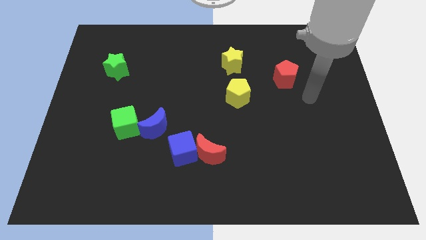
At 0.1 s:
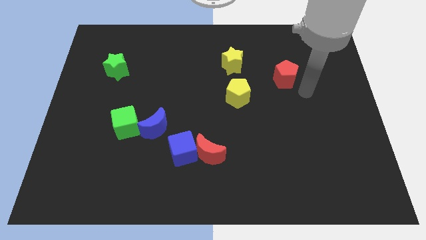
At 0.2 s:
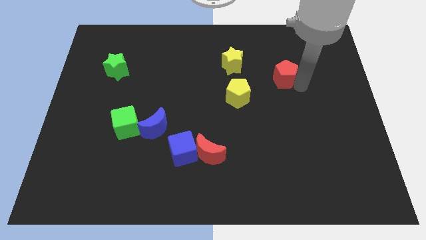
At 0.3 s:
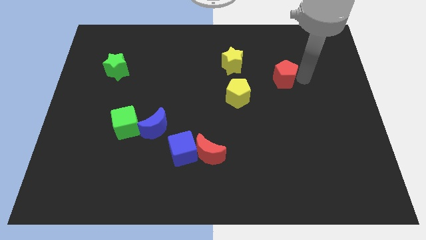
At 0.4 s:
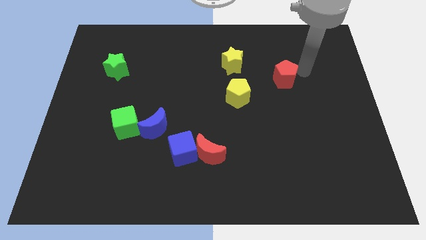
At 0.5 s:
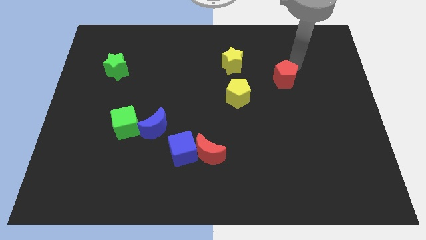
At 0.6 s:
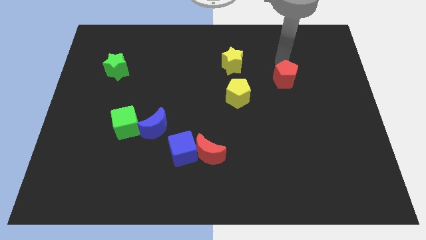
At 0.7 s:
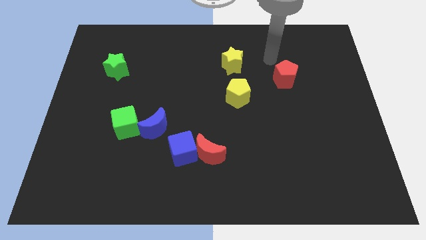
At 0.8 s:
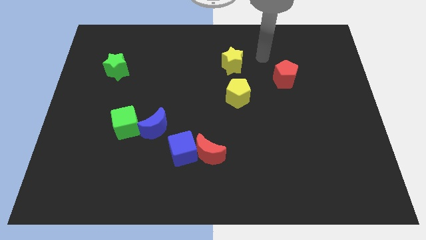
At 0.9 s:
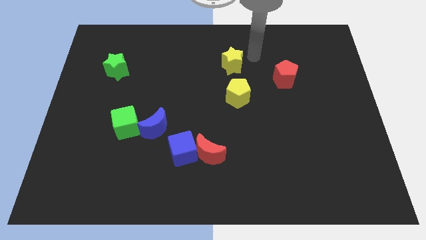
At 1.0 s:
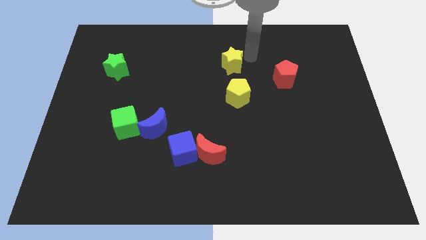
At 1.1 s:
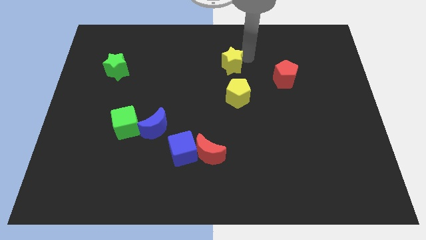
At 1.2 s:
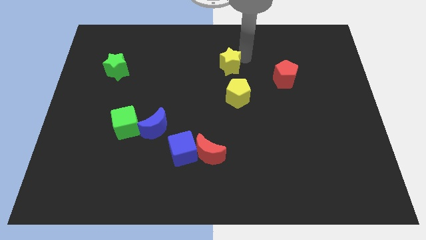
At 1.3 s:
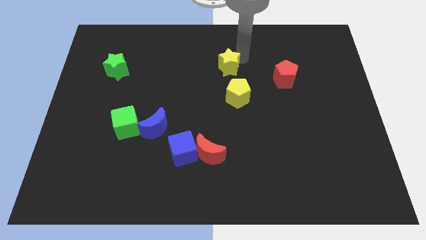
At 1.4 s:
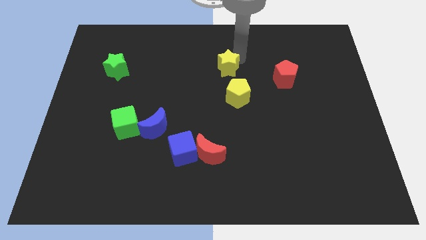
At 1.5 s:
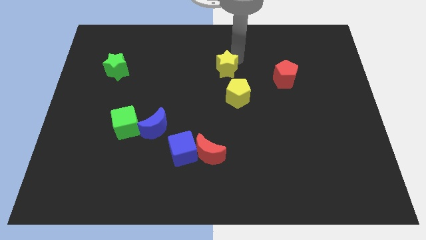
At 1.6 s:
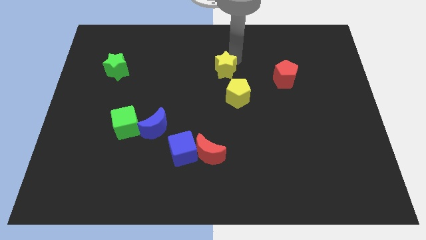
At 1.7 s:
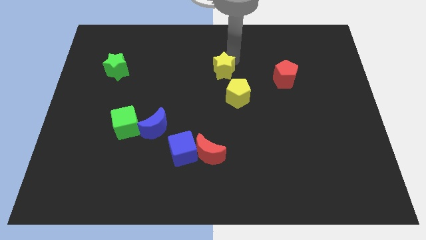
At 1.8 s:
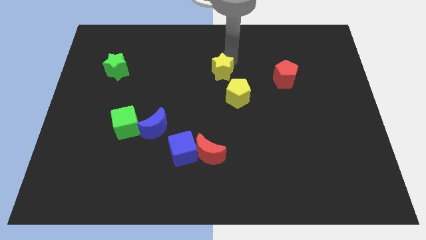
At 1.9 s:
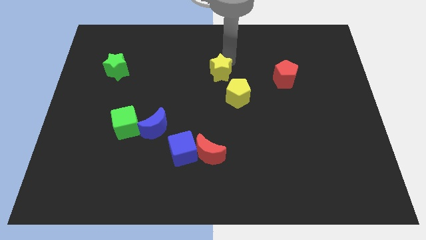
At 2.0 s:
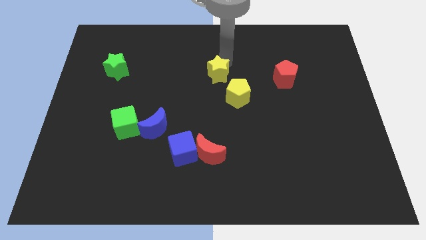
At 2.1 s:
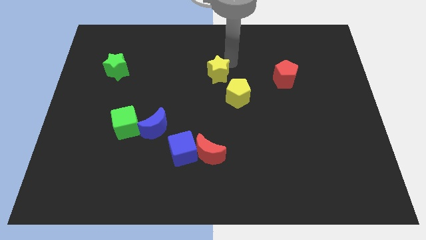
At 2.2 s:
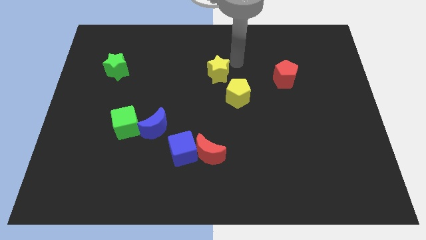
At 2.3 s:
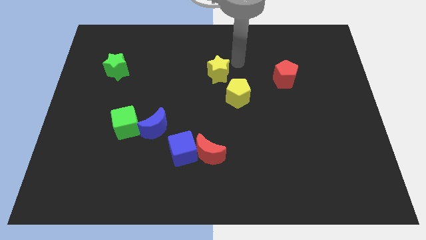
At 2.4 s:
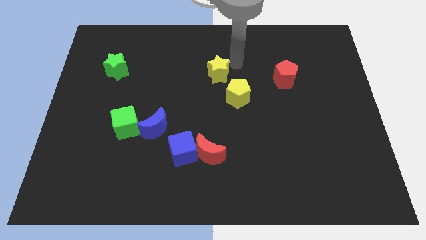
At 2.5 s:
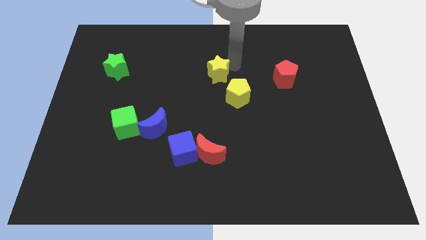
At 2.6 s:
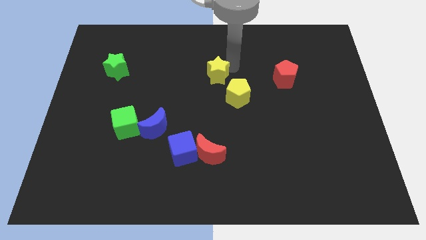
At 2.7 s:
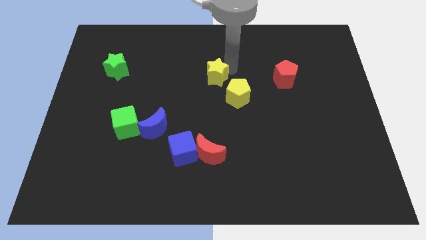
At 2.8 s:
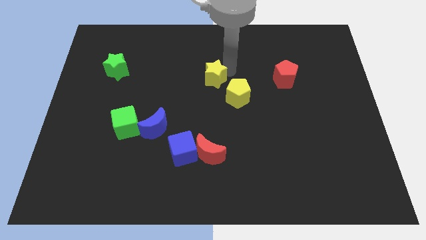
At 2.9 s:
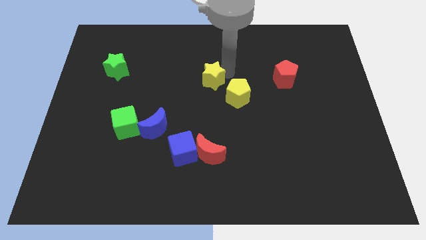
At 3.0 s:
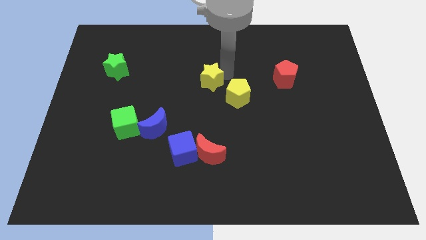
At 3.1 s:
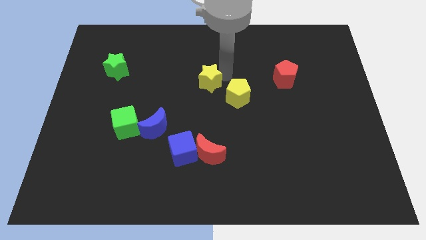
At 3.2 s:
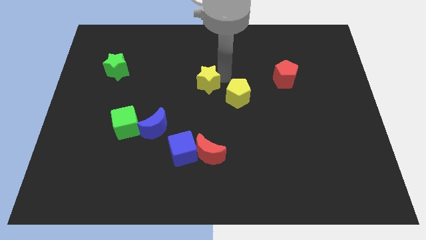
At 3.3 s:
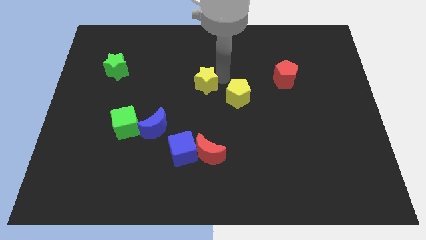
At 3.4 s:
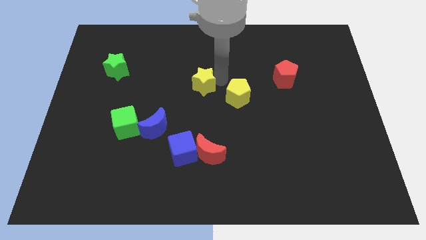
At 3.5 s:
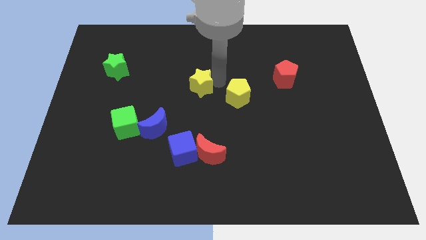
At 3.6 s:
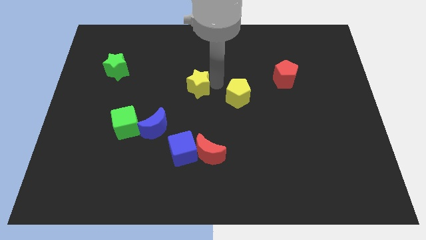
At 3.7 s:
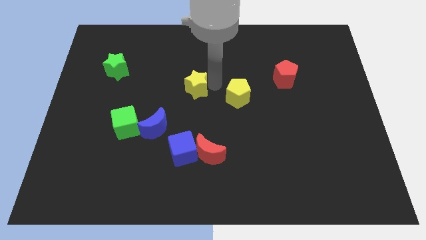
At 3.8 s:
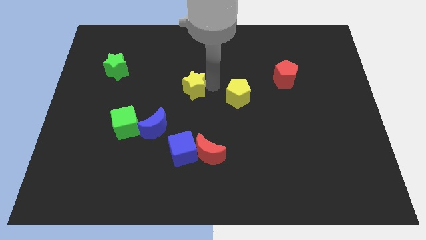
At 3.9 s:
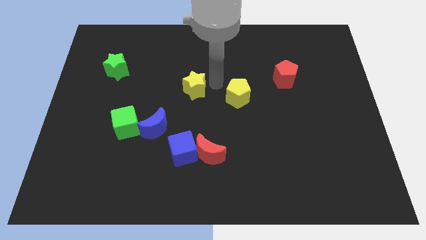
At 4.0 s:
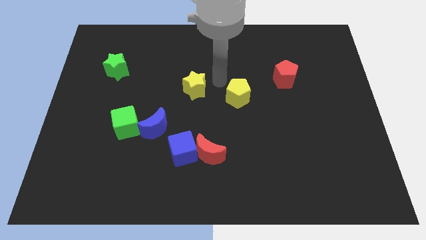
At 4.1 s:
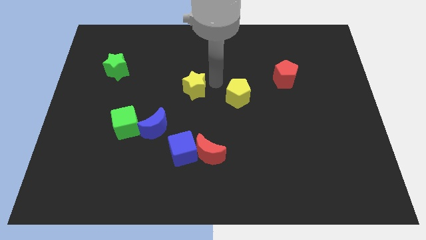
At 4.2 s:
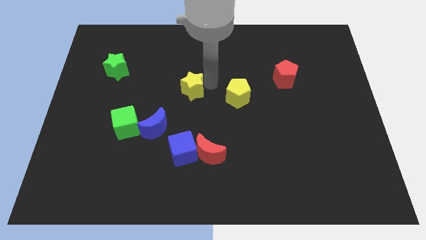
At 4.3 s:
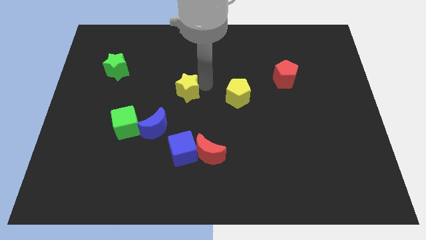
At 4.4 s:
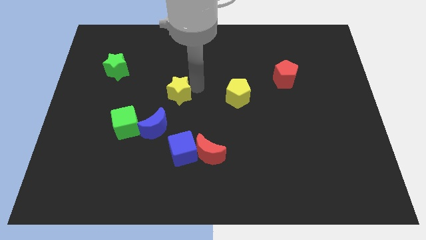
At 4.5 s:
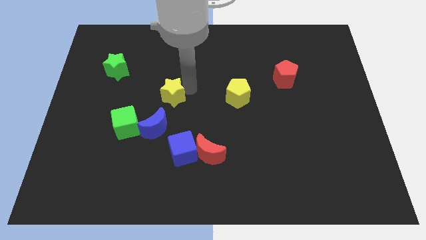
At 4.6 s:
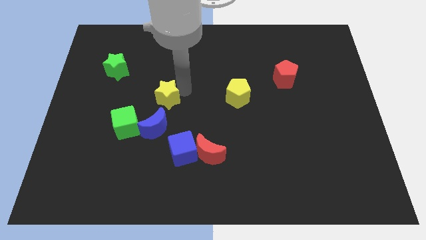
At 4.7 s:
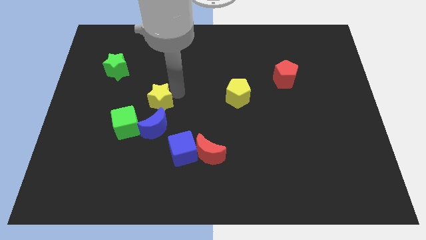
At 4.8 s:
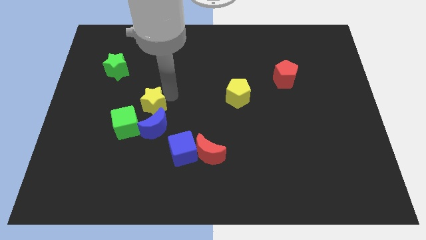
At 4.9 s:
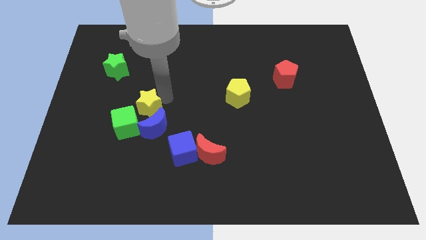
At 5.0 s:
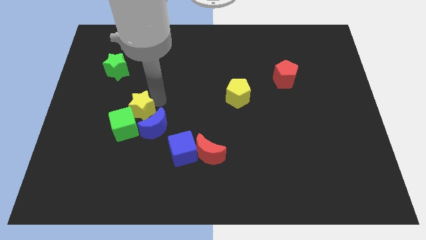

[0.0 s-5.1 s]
put the yellow star to the green cube

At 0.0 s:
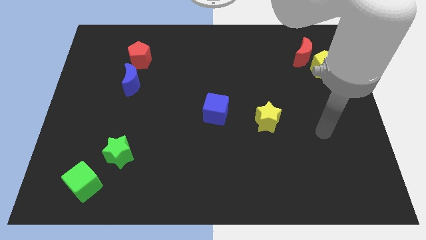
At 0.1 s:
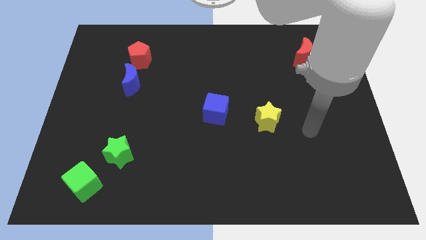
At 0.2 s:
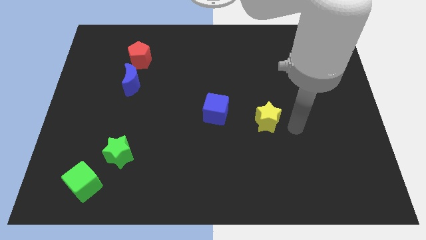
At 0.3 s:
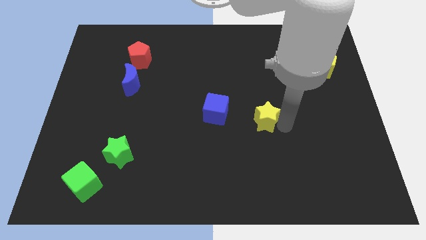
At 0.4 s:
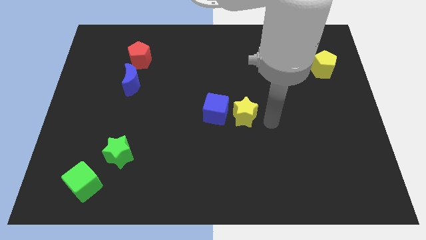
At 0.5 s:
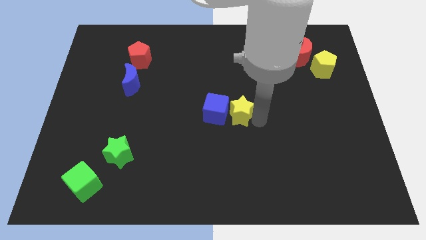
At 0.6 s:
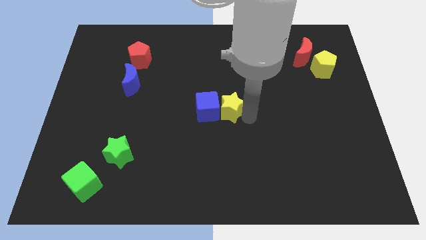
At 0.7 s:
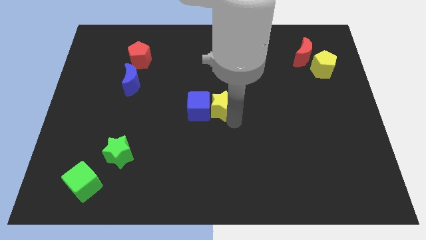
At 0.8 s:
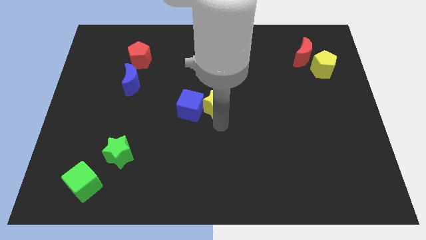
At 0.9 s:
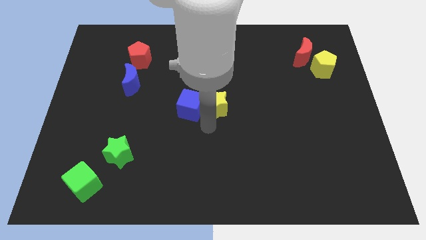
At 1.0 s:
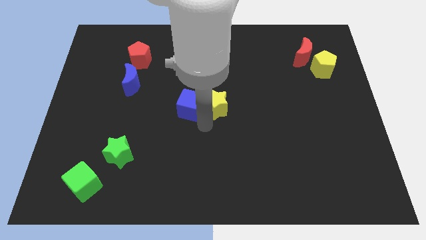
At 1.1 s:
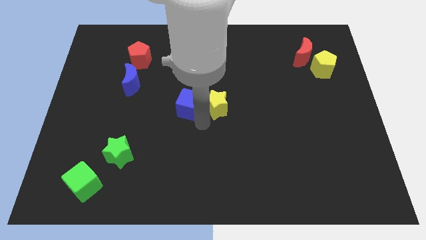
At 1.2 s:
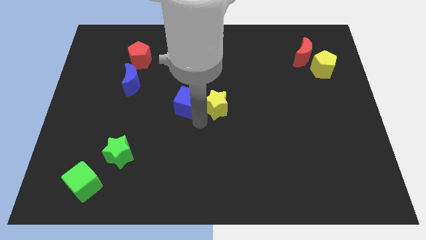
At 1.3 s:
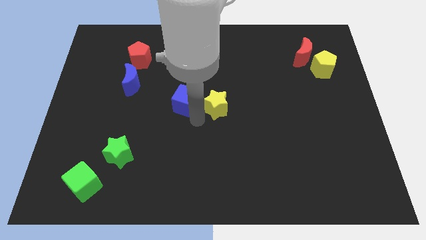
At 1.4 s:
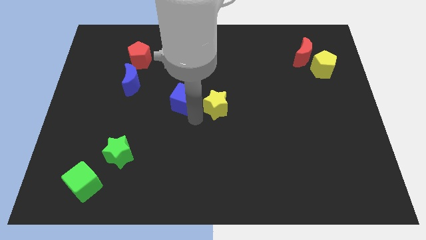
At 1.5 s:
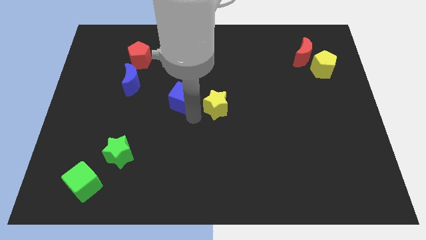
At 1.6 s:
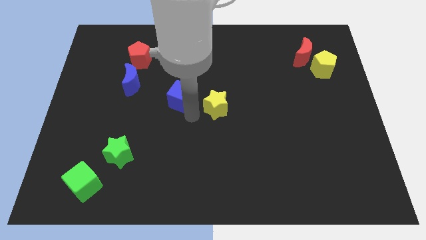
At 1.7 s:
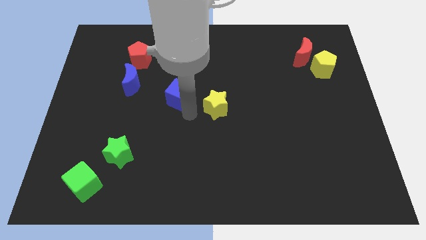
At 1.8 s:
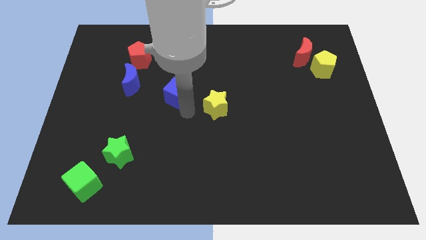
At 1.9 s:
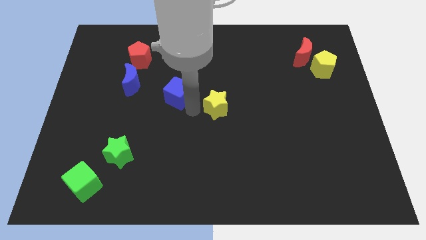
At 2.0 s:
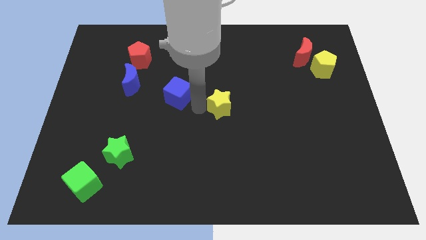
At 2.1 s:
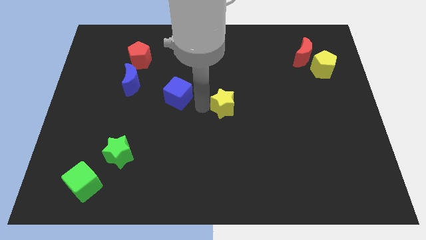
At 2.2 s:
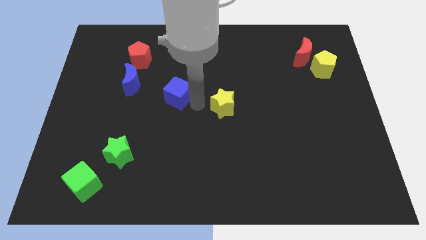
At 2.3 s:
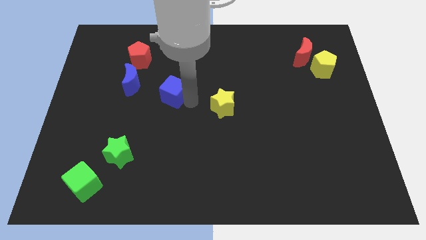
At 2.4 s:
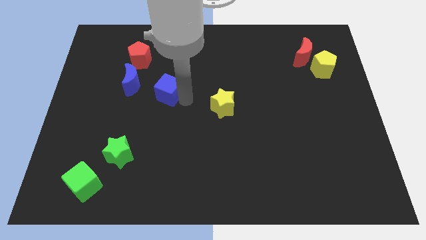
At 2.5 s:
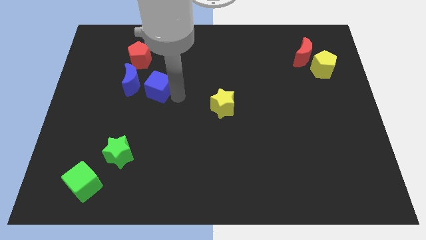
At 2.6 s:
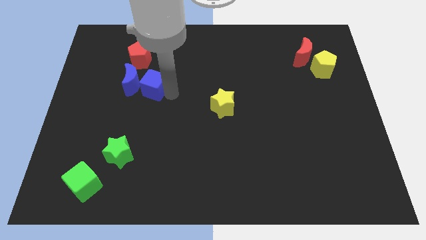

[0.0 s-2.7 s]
move the blue cube close to the blue moon
